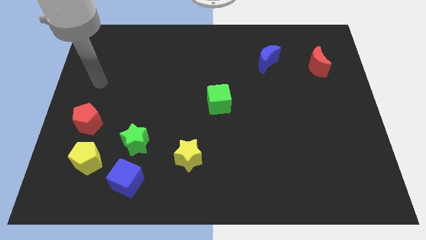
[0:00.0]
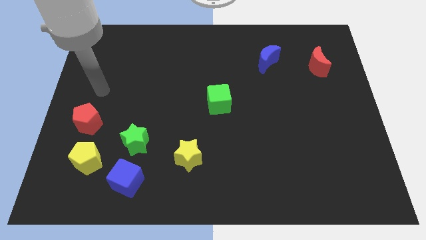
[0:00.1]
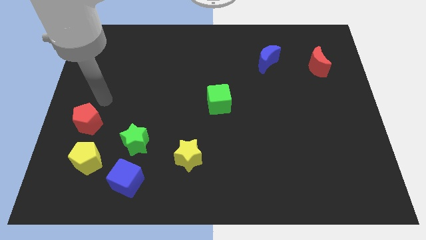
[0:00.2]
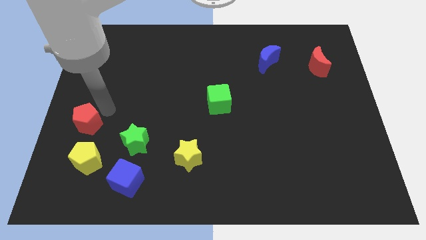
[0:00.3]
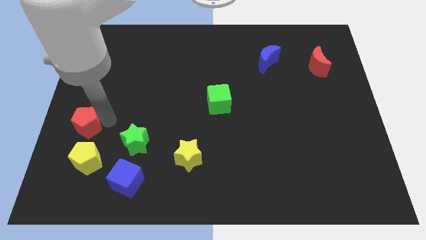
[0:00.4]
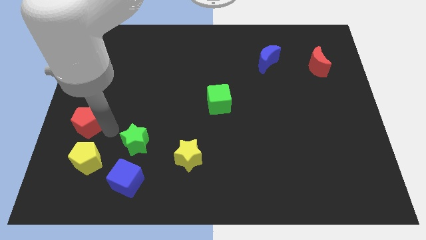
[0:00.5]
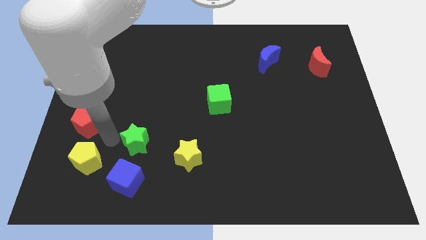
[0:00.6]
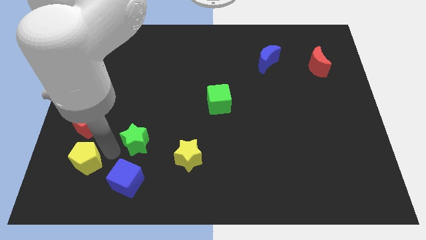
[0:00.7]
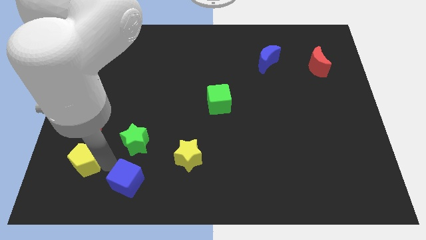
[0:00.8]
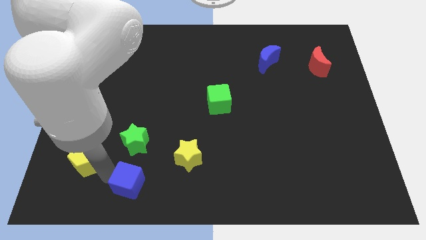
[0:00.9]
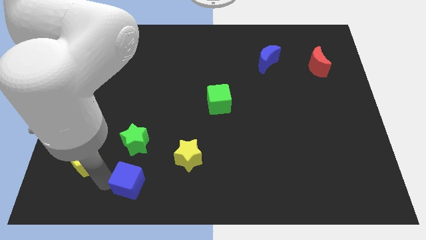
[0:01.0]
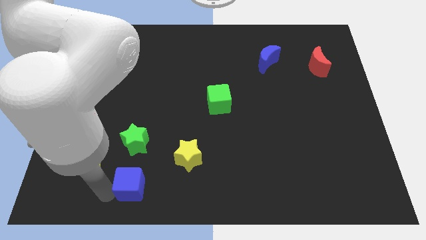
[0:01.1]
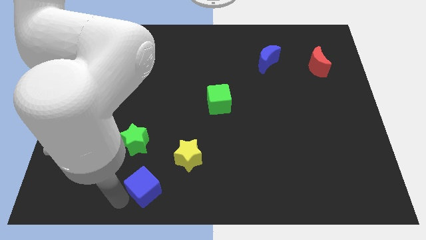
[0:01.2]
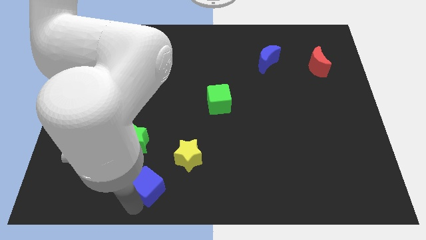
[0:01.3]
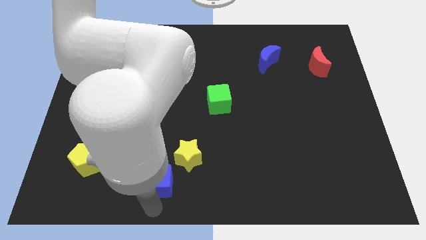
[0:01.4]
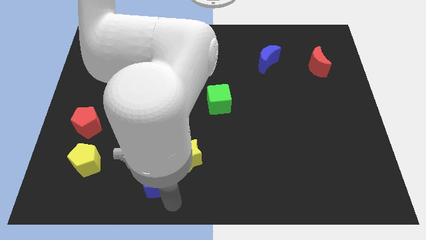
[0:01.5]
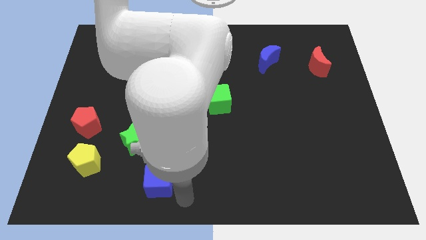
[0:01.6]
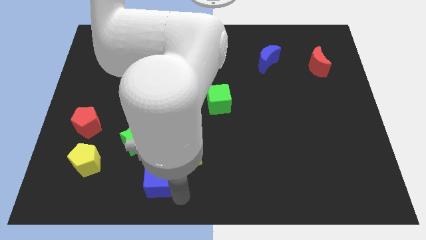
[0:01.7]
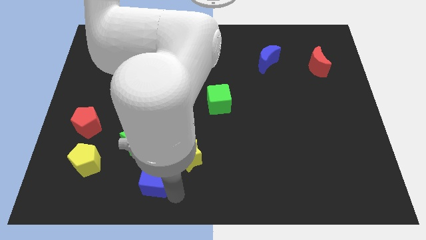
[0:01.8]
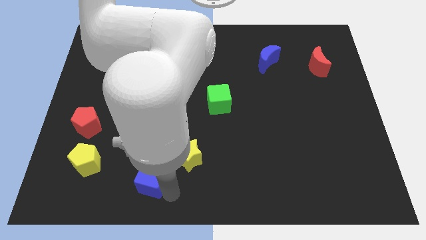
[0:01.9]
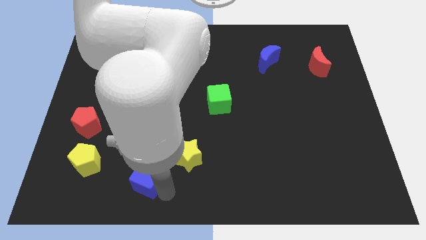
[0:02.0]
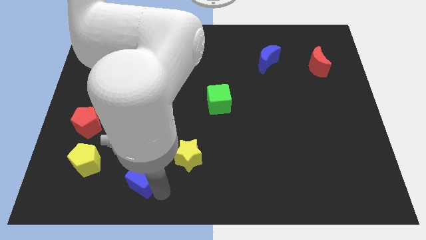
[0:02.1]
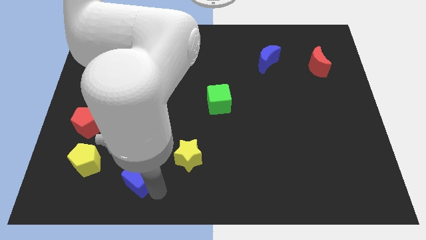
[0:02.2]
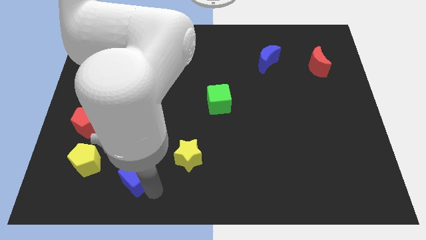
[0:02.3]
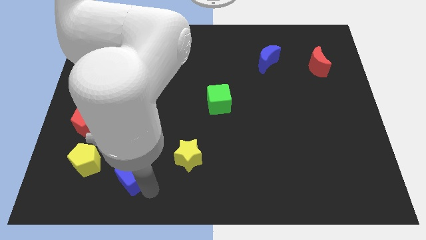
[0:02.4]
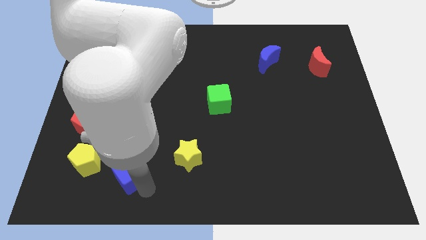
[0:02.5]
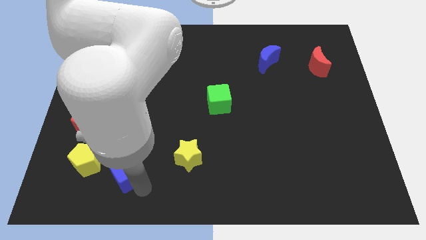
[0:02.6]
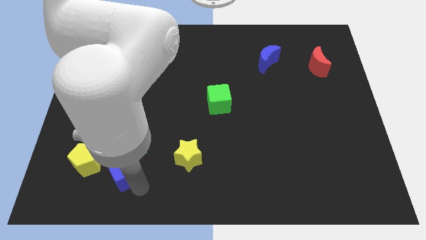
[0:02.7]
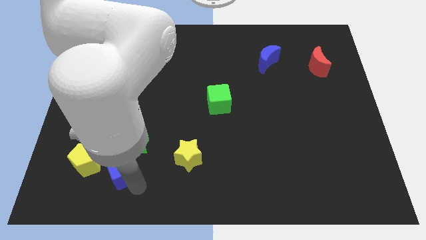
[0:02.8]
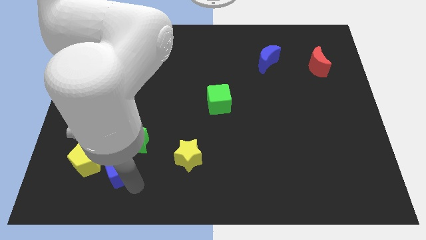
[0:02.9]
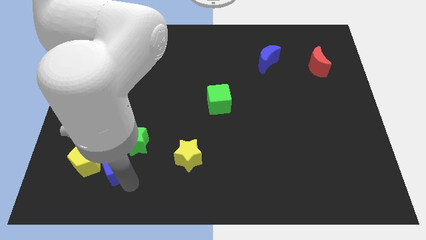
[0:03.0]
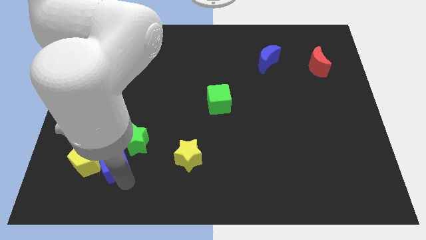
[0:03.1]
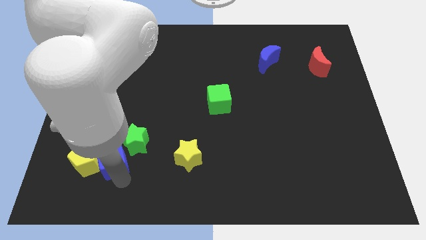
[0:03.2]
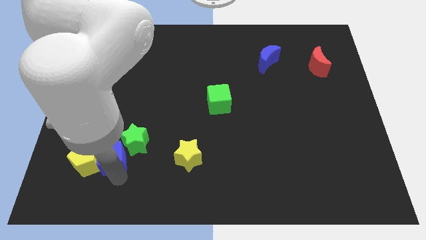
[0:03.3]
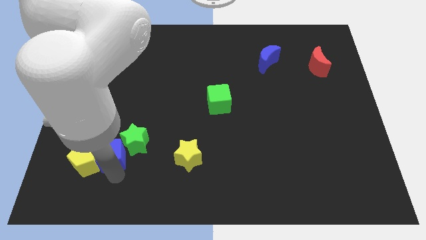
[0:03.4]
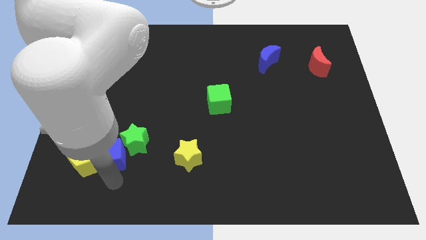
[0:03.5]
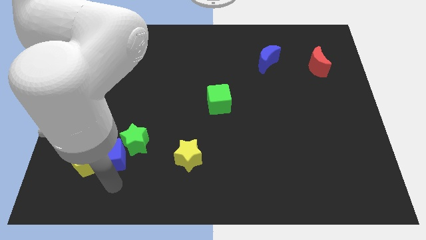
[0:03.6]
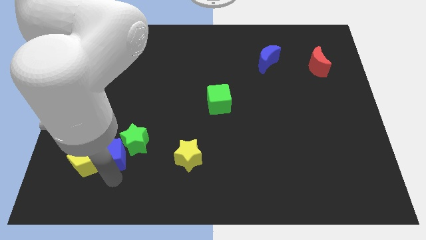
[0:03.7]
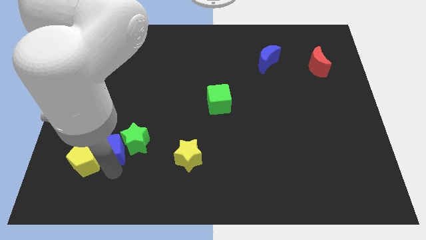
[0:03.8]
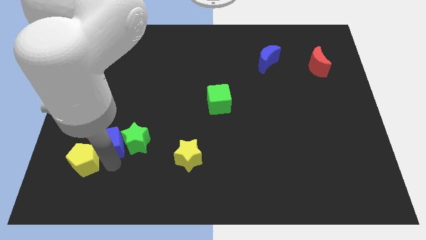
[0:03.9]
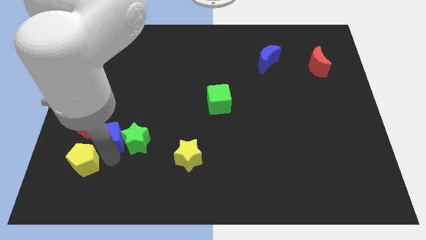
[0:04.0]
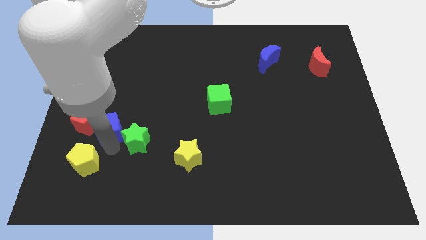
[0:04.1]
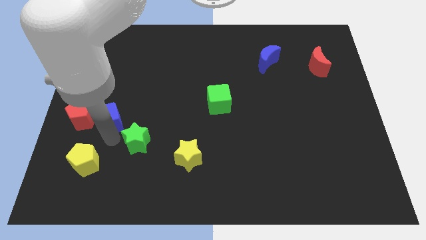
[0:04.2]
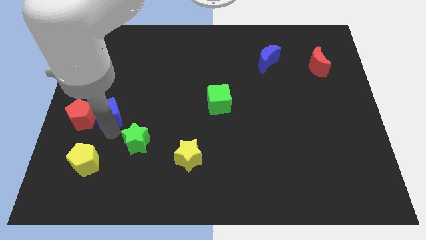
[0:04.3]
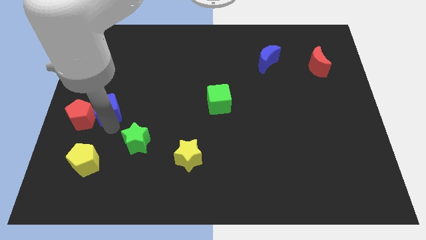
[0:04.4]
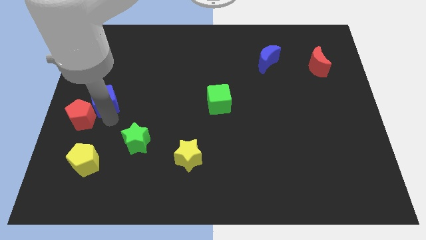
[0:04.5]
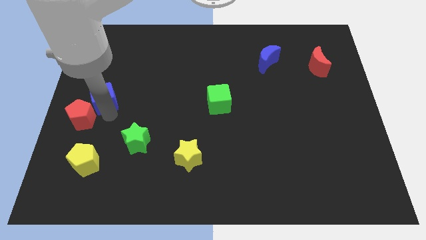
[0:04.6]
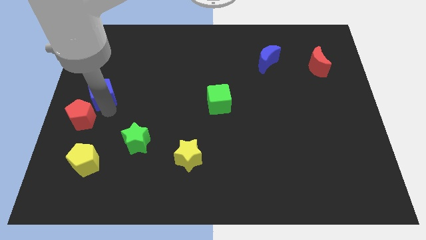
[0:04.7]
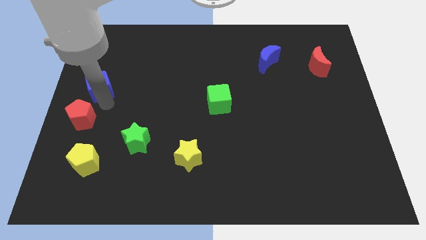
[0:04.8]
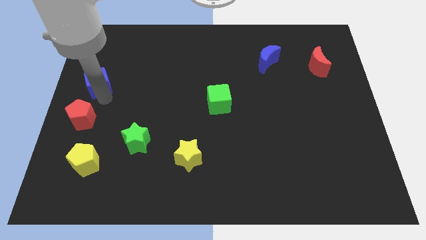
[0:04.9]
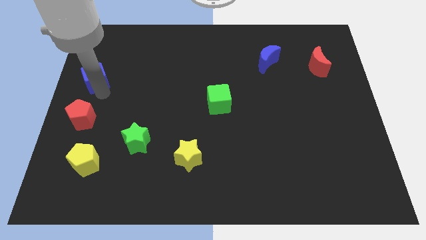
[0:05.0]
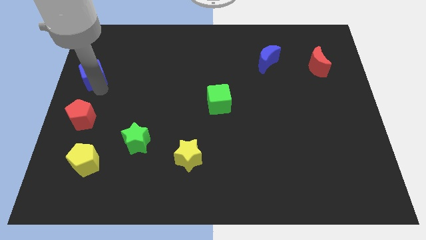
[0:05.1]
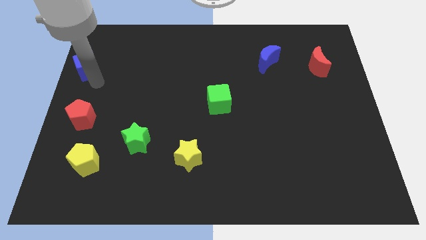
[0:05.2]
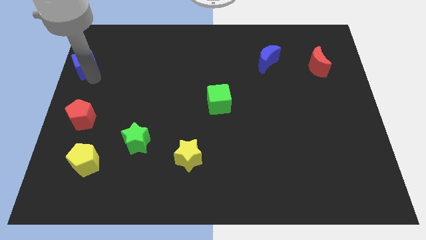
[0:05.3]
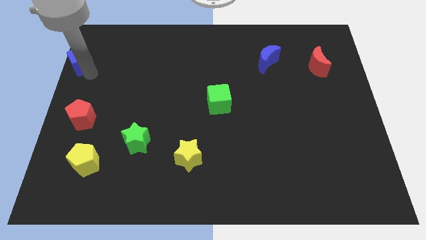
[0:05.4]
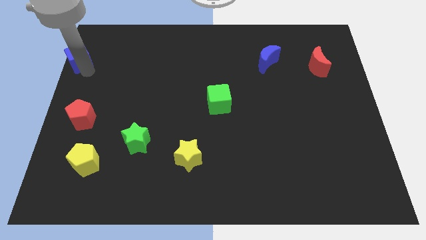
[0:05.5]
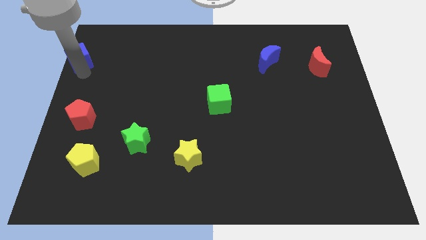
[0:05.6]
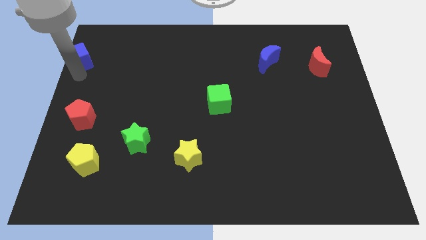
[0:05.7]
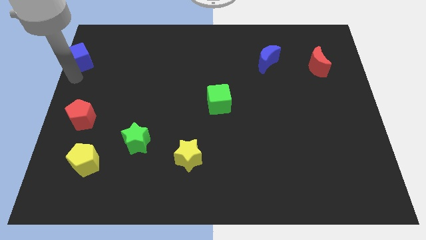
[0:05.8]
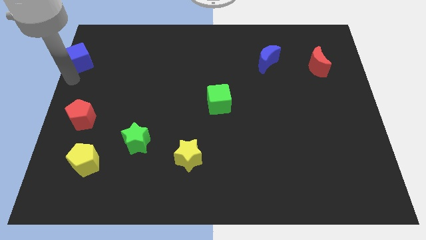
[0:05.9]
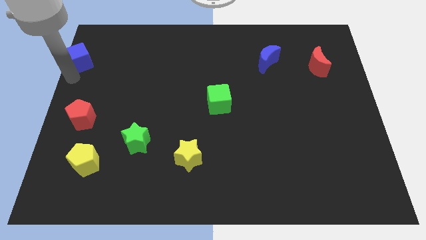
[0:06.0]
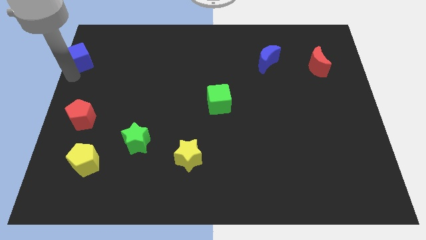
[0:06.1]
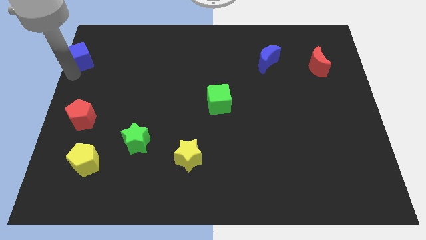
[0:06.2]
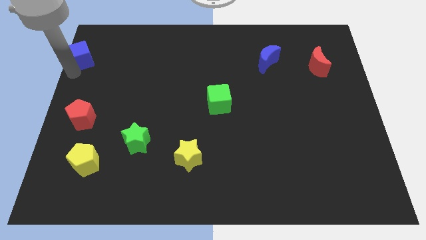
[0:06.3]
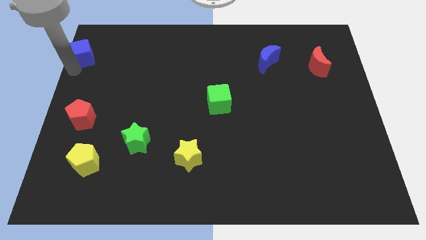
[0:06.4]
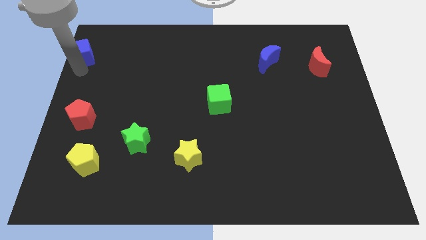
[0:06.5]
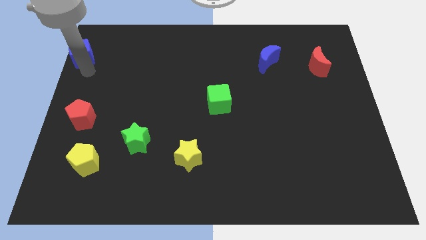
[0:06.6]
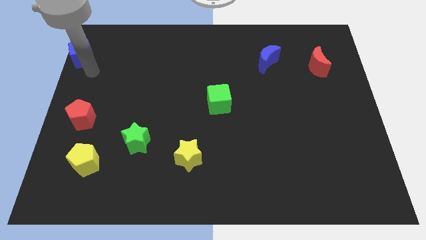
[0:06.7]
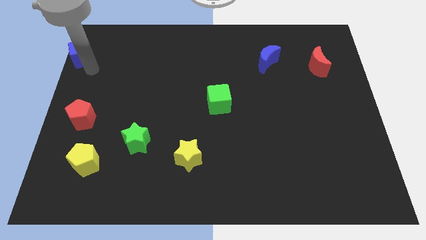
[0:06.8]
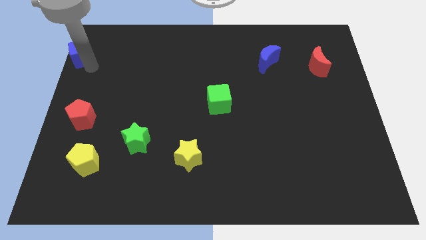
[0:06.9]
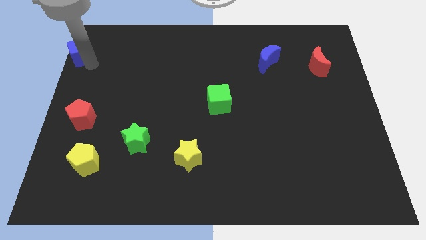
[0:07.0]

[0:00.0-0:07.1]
slide the blue cube to the top left corner
